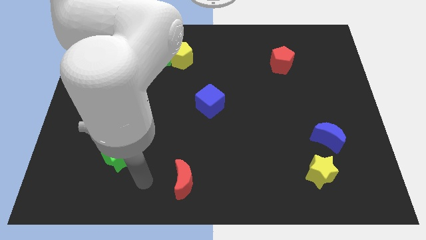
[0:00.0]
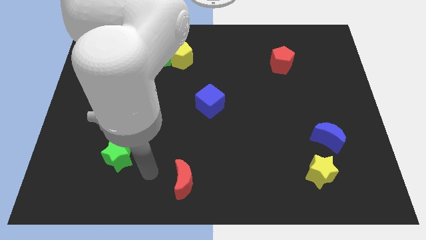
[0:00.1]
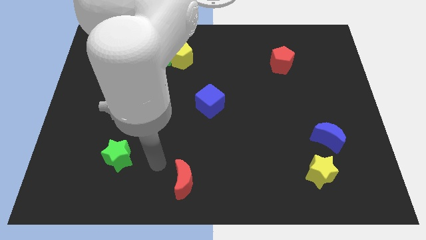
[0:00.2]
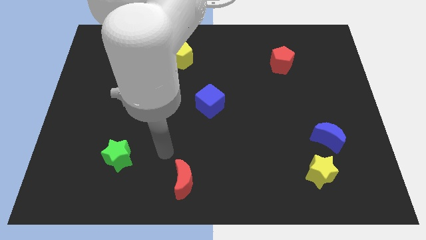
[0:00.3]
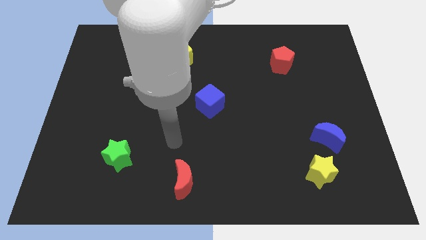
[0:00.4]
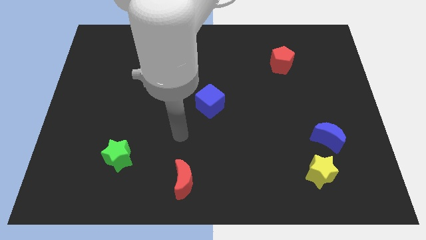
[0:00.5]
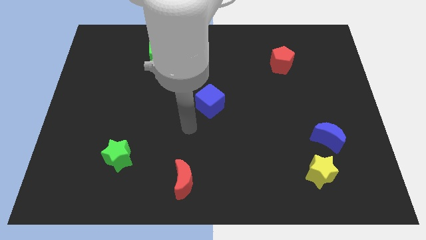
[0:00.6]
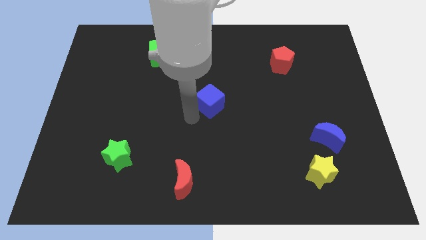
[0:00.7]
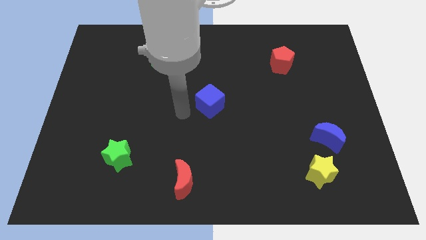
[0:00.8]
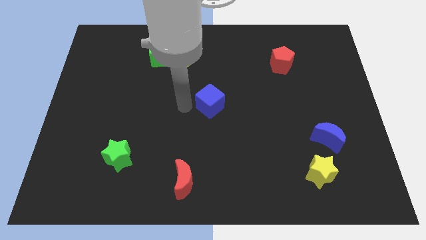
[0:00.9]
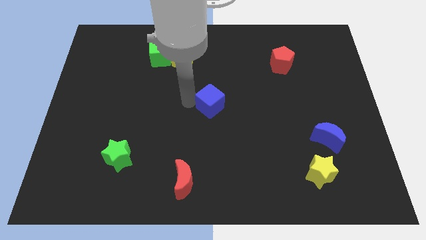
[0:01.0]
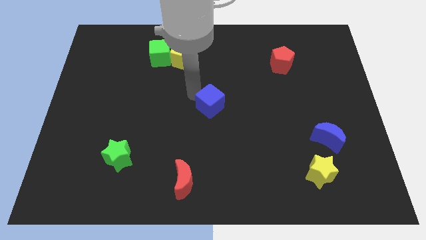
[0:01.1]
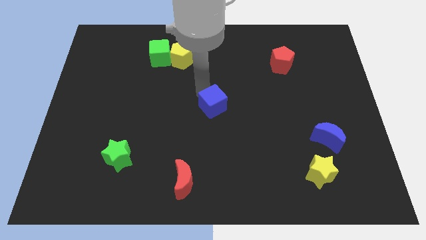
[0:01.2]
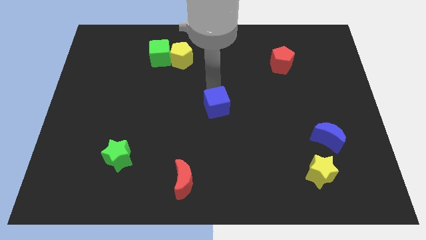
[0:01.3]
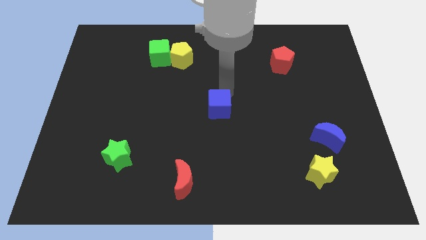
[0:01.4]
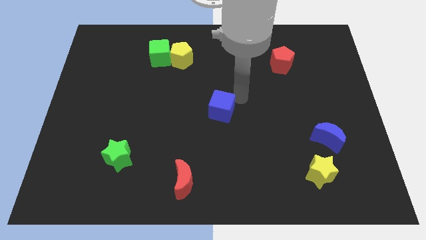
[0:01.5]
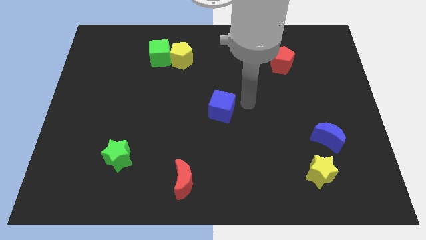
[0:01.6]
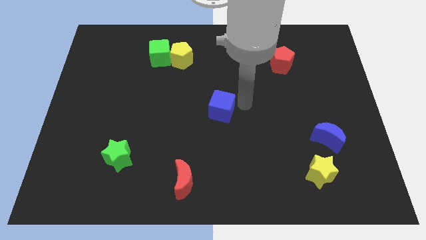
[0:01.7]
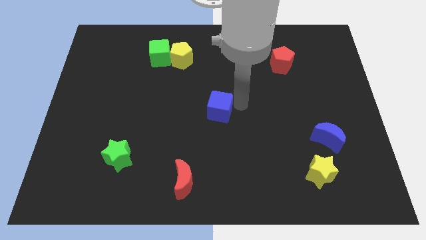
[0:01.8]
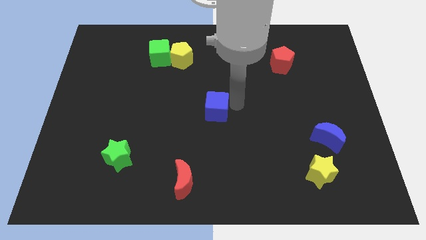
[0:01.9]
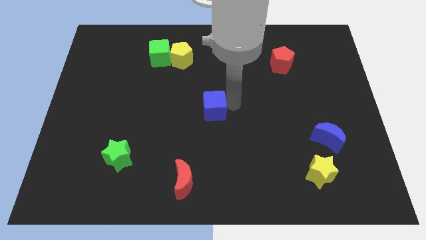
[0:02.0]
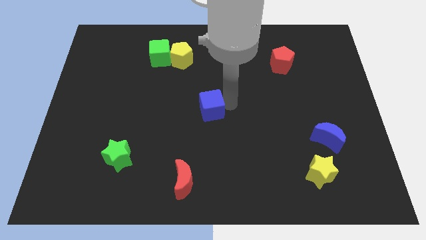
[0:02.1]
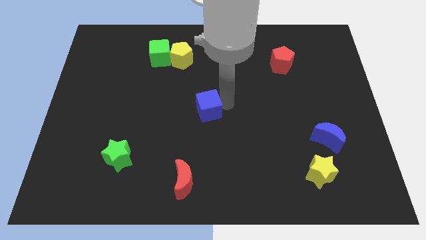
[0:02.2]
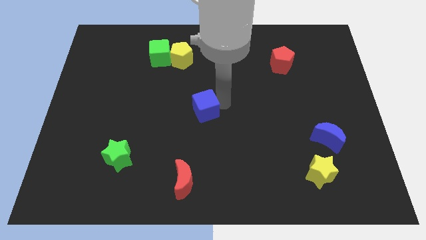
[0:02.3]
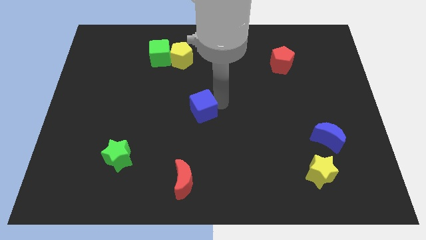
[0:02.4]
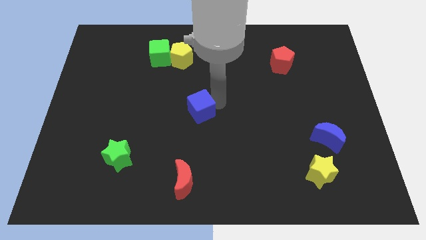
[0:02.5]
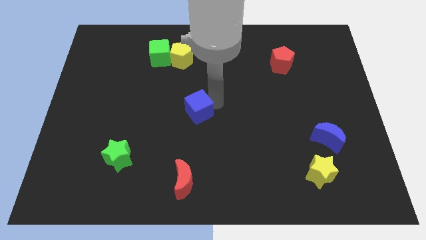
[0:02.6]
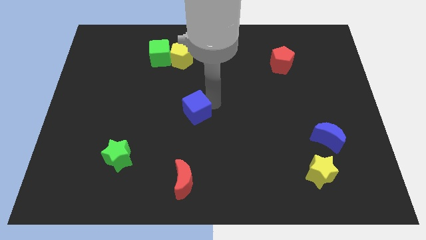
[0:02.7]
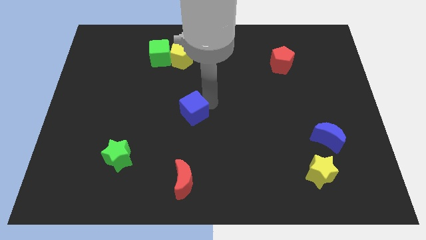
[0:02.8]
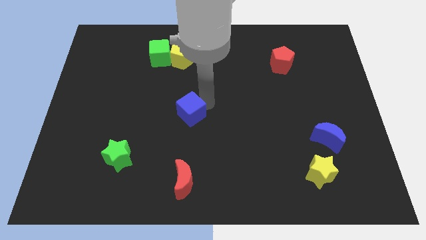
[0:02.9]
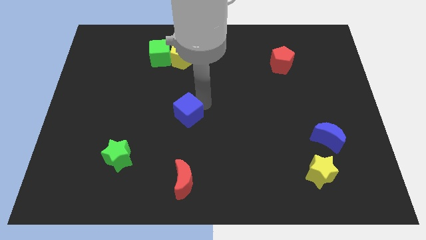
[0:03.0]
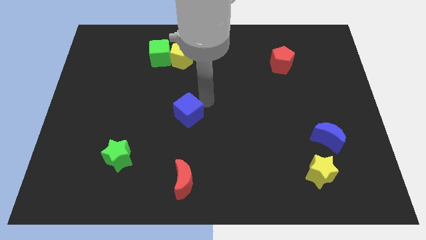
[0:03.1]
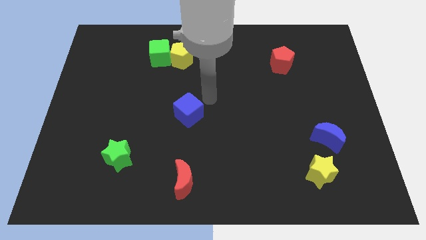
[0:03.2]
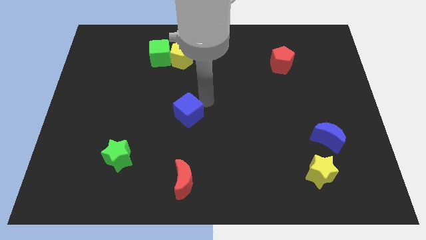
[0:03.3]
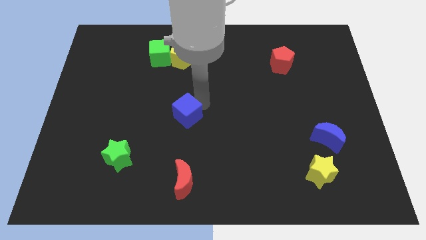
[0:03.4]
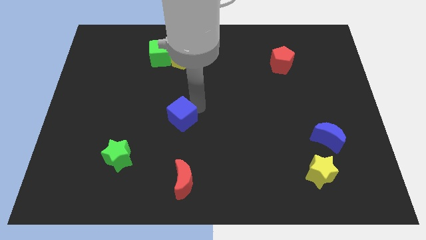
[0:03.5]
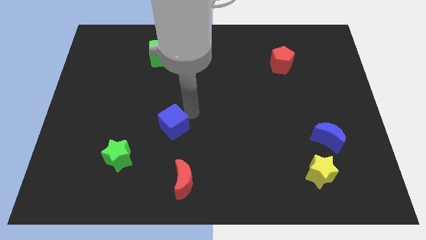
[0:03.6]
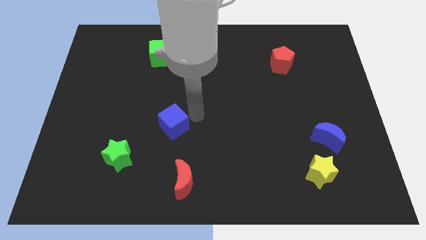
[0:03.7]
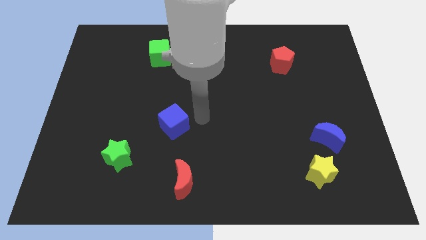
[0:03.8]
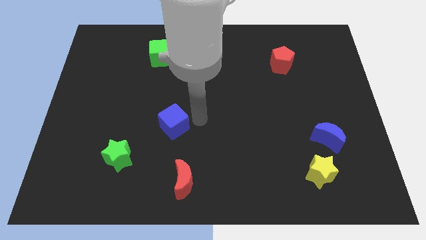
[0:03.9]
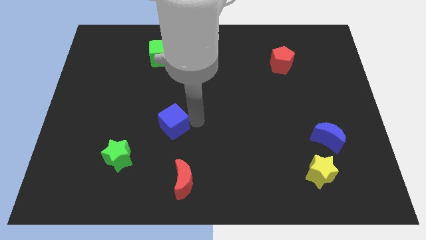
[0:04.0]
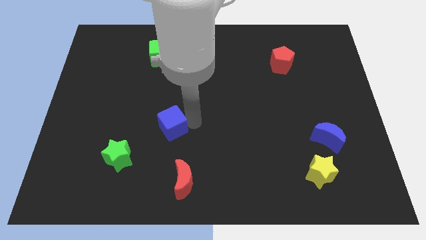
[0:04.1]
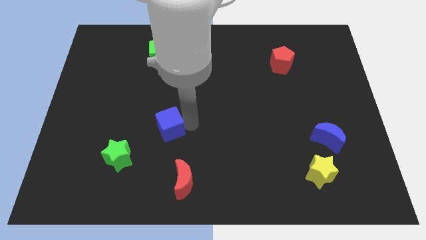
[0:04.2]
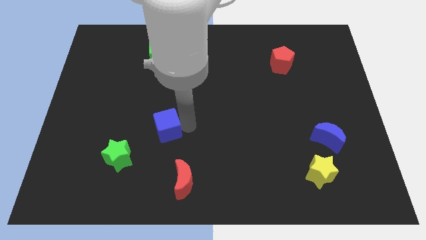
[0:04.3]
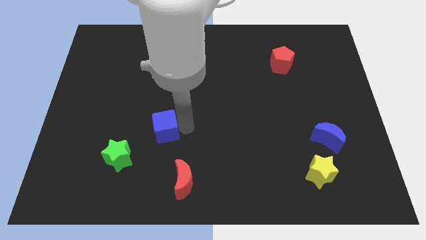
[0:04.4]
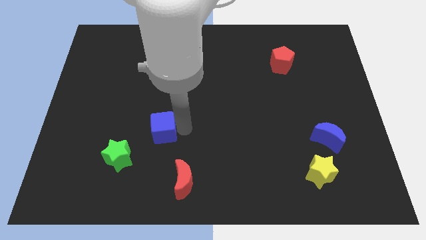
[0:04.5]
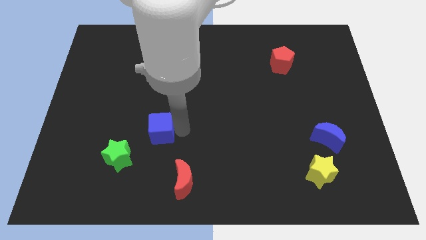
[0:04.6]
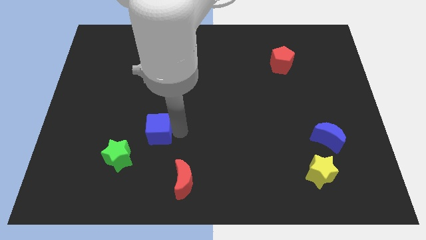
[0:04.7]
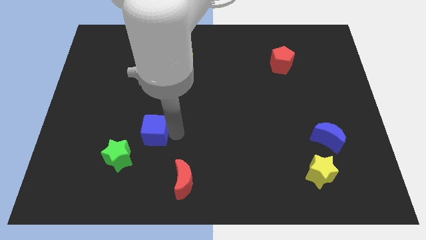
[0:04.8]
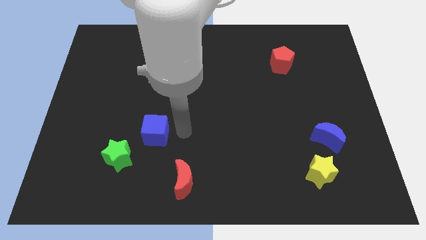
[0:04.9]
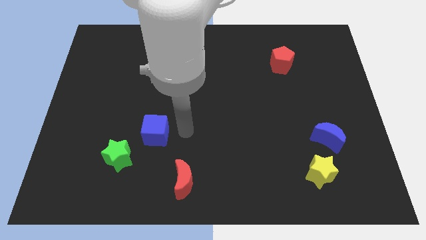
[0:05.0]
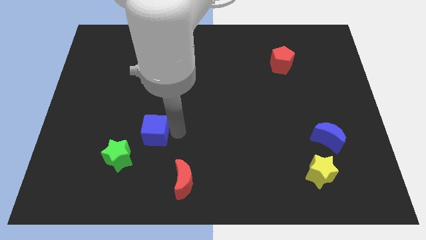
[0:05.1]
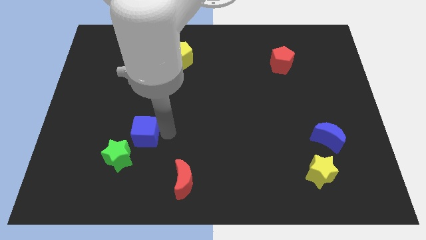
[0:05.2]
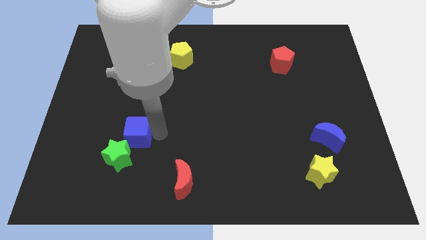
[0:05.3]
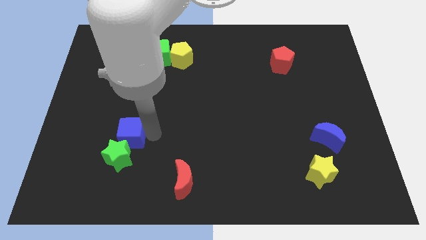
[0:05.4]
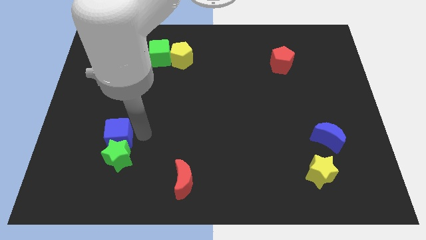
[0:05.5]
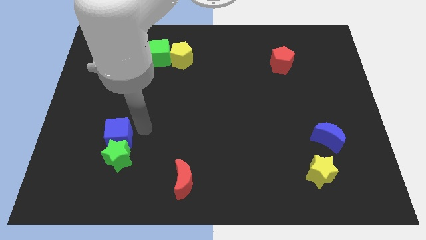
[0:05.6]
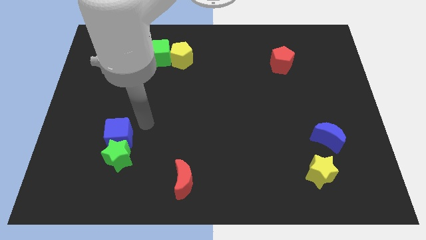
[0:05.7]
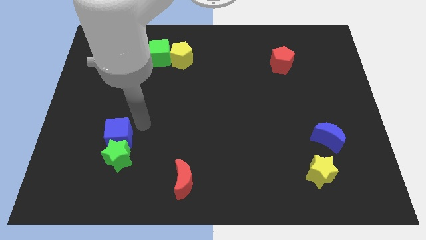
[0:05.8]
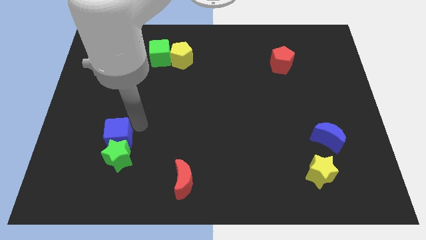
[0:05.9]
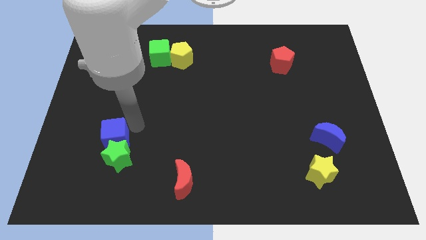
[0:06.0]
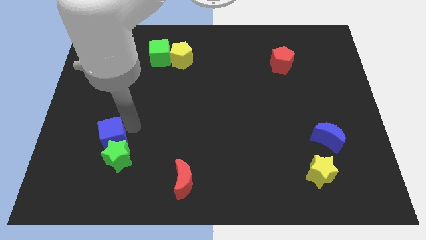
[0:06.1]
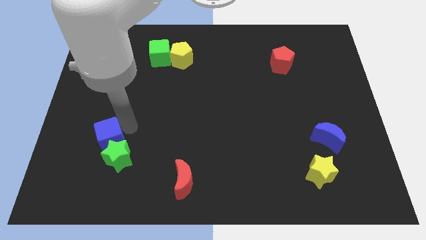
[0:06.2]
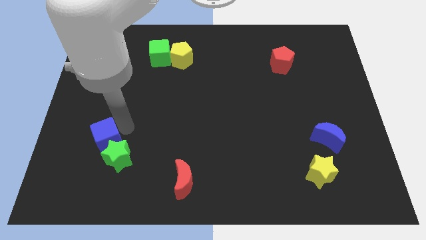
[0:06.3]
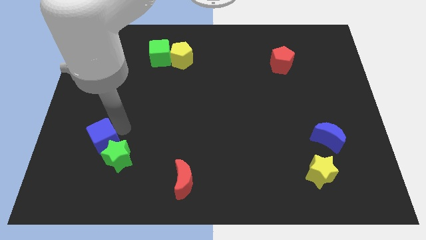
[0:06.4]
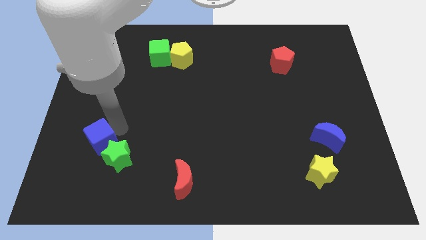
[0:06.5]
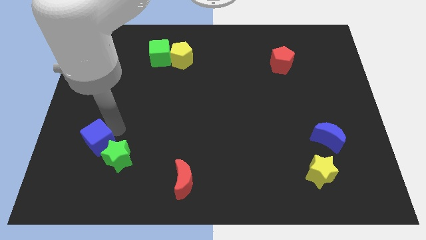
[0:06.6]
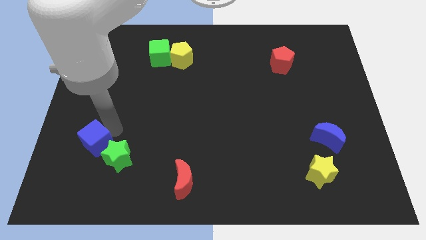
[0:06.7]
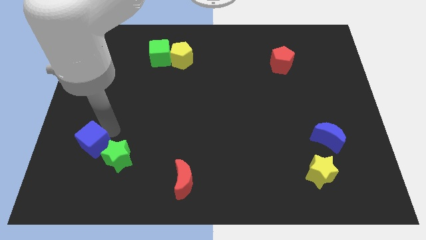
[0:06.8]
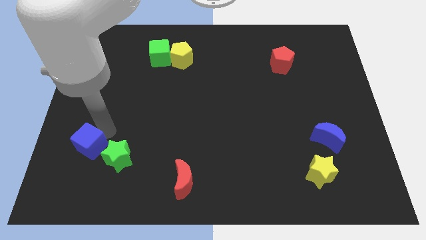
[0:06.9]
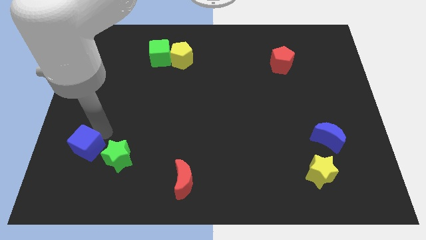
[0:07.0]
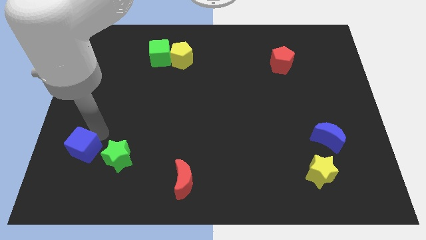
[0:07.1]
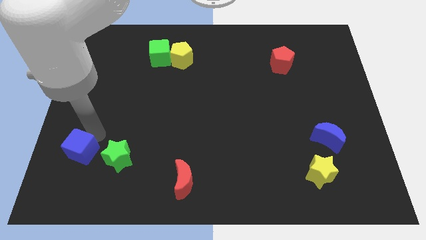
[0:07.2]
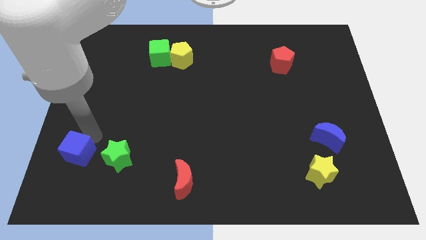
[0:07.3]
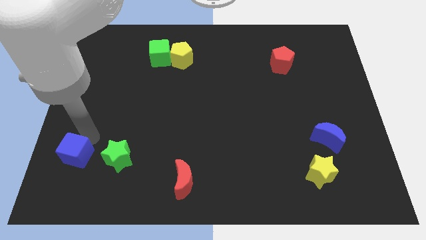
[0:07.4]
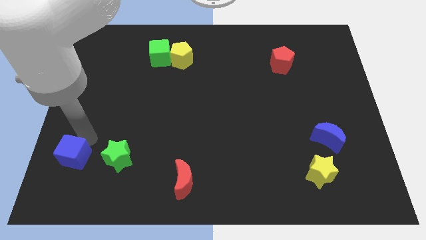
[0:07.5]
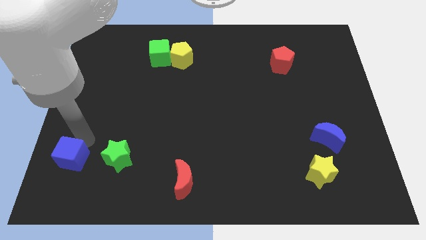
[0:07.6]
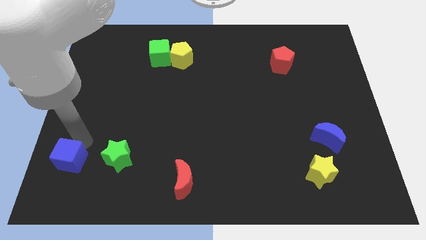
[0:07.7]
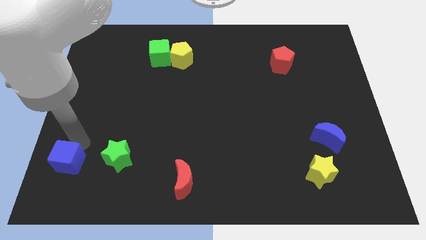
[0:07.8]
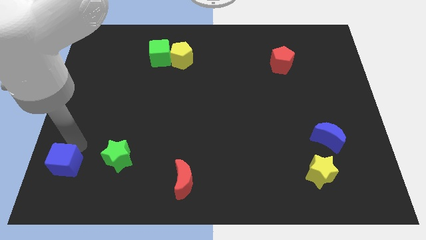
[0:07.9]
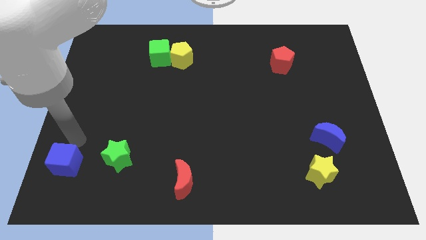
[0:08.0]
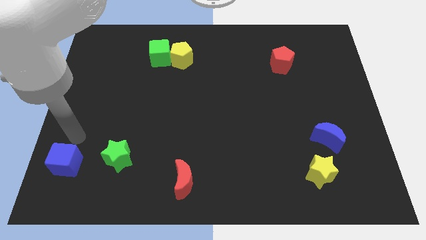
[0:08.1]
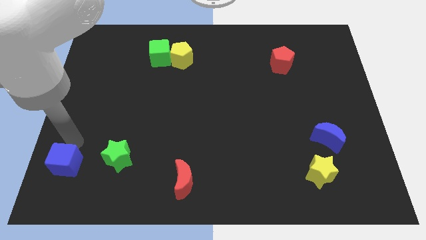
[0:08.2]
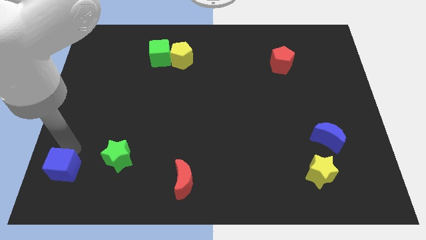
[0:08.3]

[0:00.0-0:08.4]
put the blue cube to the bottom left
